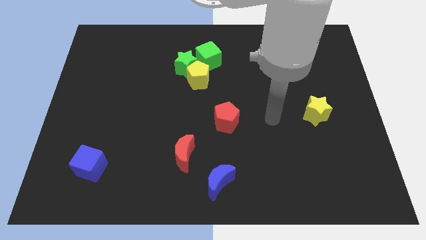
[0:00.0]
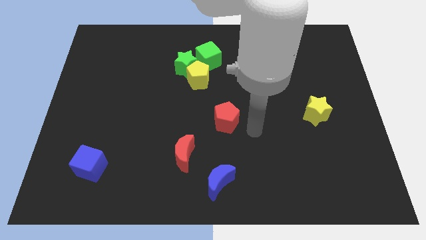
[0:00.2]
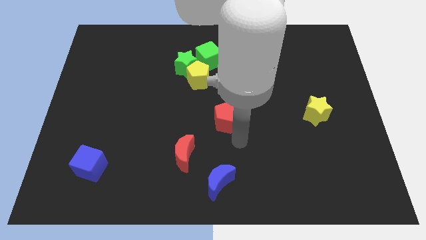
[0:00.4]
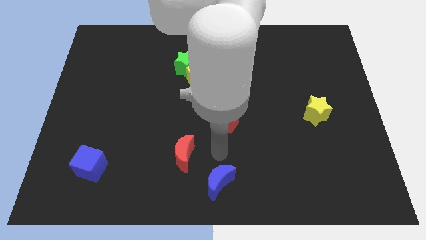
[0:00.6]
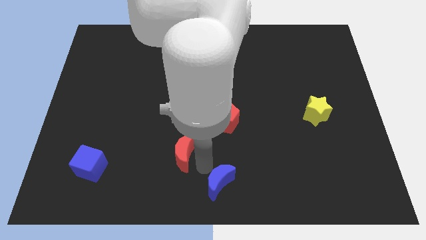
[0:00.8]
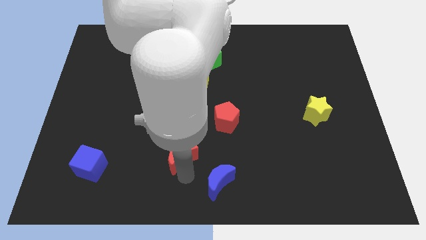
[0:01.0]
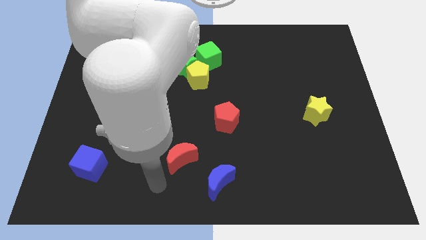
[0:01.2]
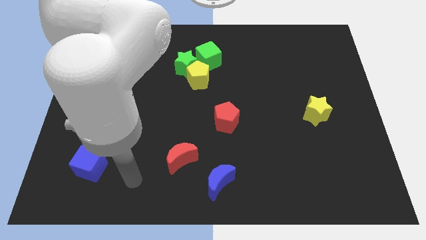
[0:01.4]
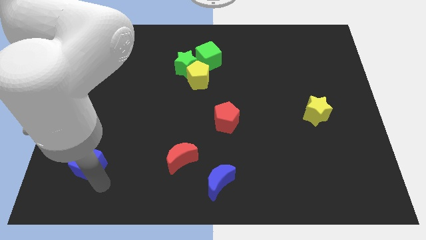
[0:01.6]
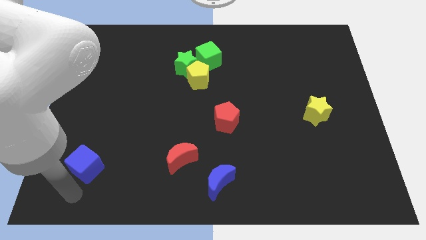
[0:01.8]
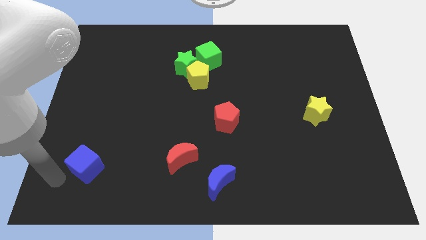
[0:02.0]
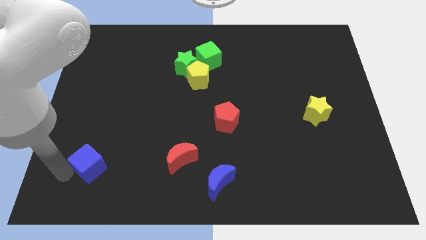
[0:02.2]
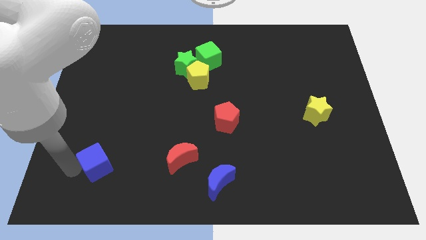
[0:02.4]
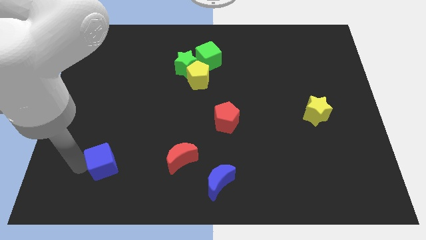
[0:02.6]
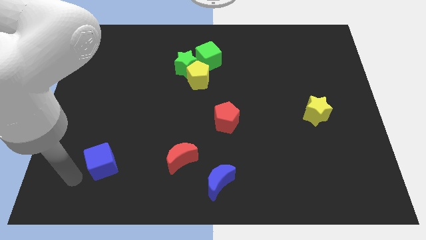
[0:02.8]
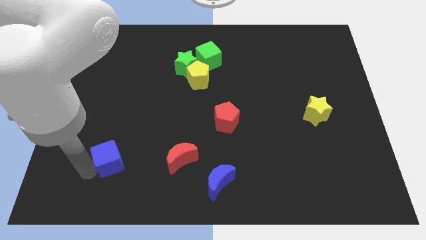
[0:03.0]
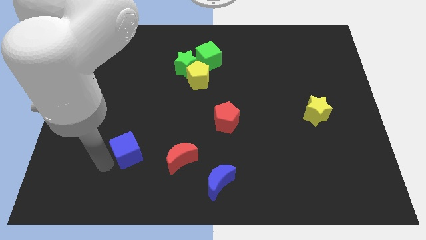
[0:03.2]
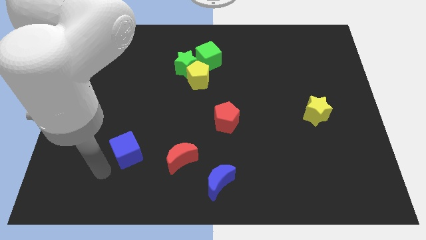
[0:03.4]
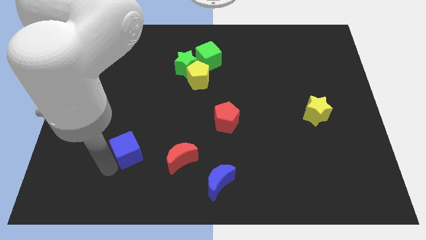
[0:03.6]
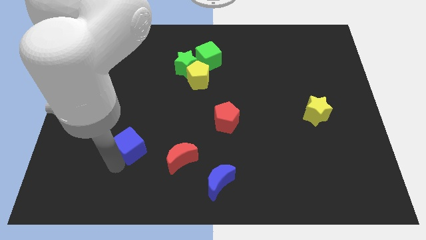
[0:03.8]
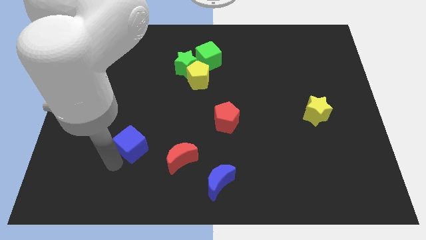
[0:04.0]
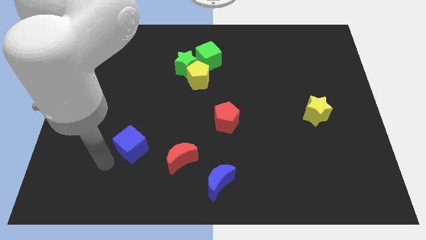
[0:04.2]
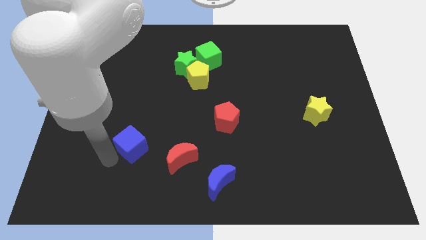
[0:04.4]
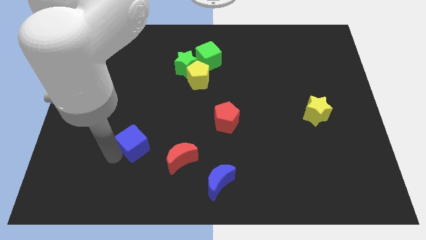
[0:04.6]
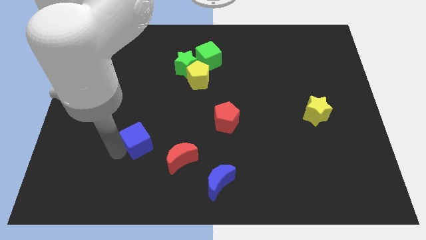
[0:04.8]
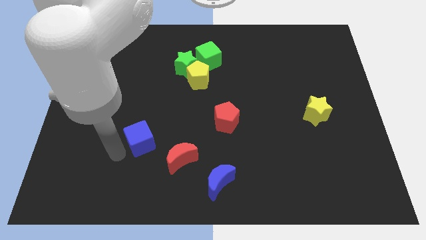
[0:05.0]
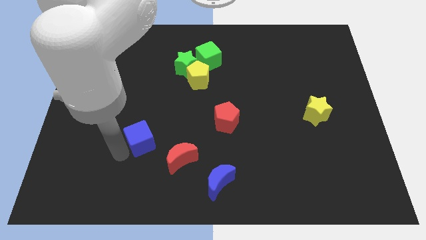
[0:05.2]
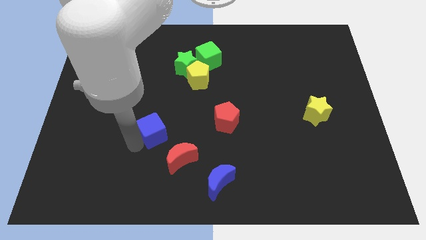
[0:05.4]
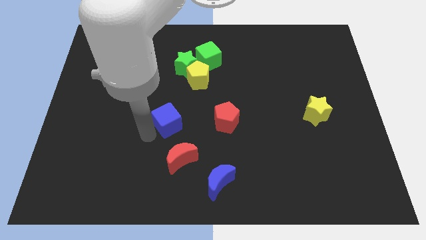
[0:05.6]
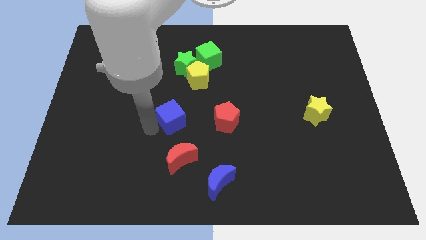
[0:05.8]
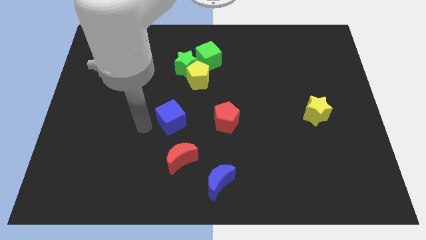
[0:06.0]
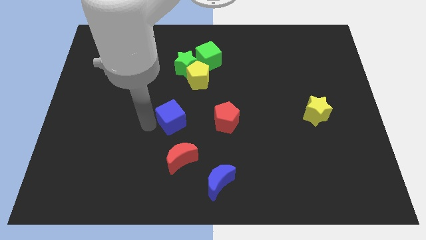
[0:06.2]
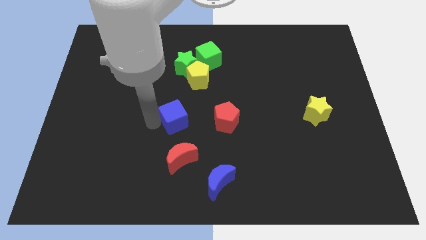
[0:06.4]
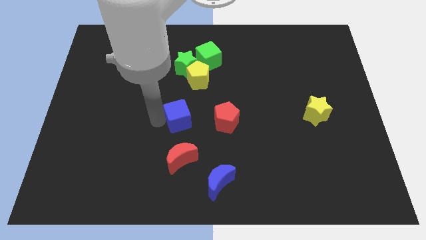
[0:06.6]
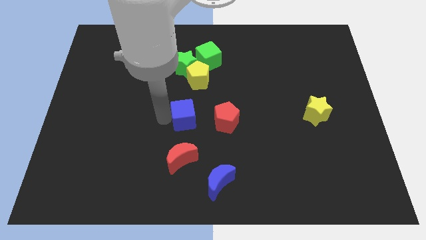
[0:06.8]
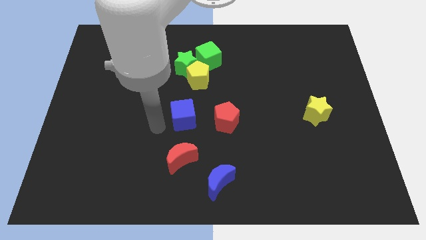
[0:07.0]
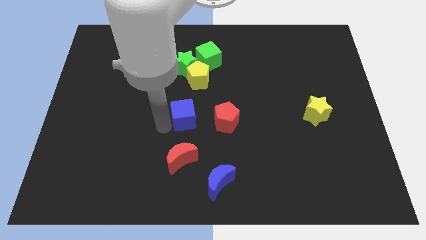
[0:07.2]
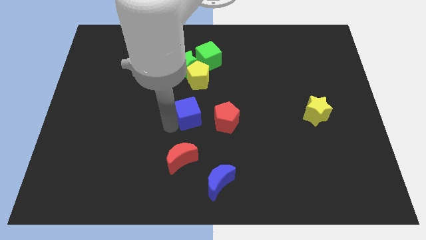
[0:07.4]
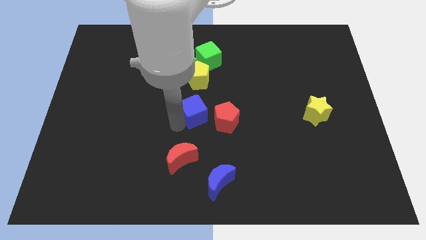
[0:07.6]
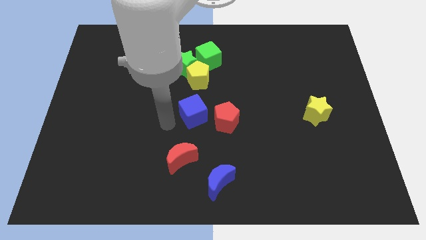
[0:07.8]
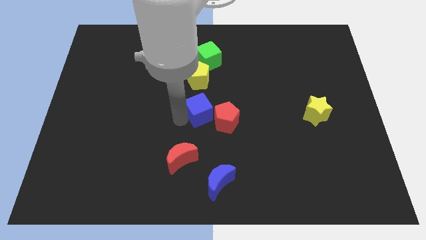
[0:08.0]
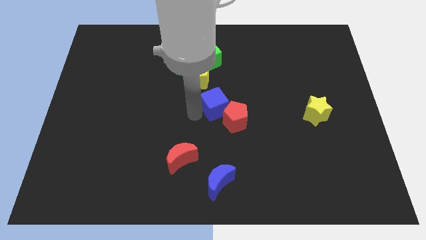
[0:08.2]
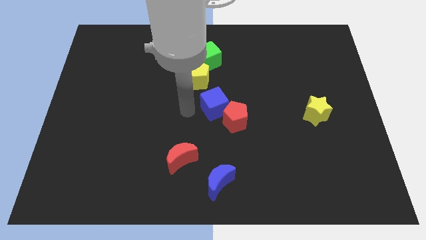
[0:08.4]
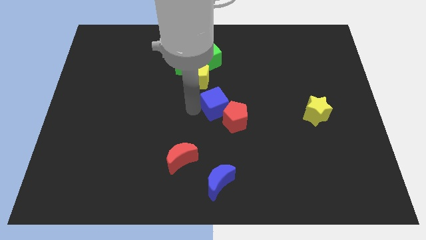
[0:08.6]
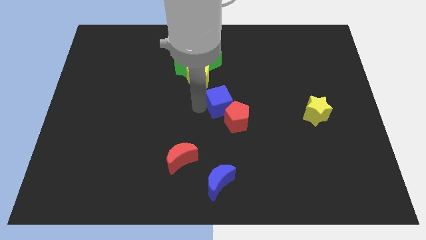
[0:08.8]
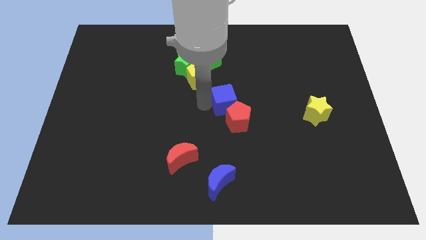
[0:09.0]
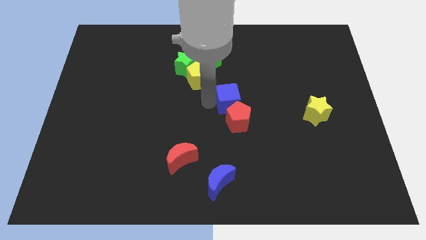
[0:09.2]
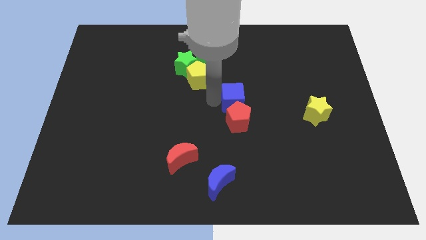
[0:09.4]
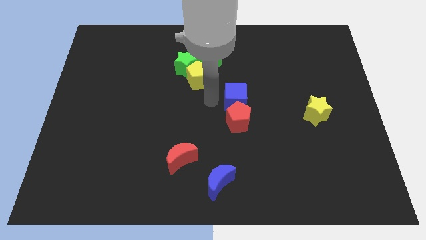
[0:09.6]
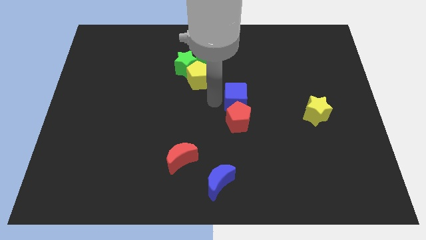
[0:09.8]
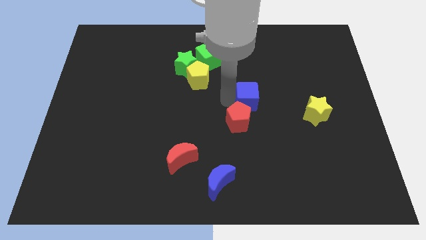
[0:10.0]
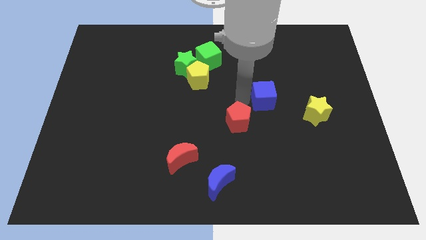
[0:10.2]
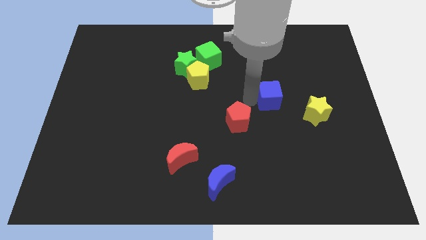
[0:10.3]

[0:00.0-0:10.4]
slide the blue cube to the top left side of the yellow star

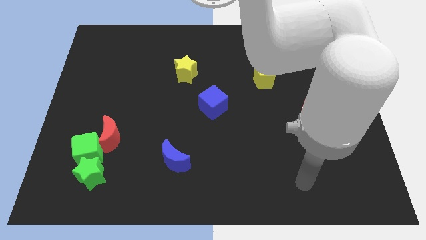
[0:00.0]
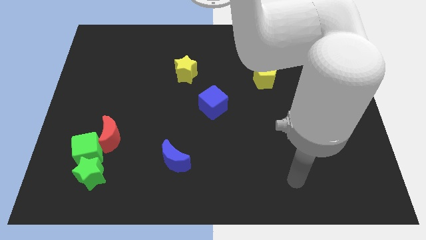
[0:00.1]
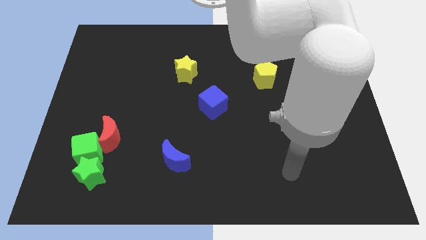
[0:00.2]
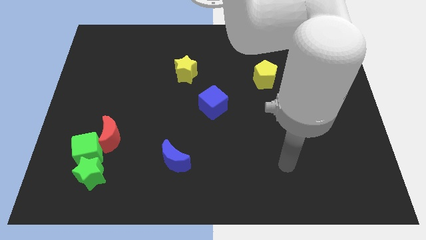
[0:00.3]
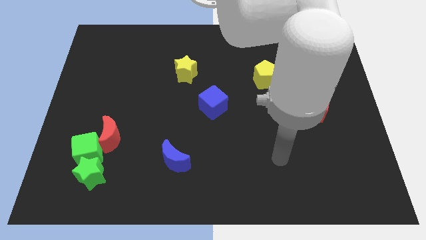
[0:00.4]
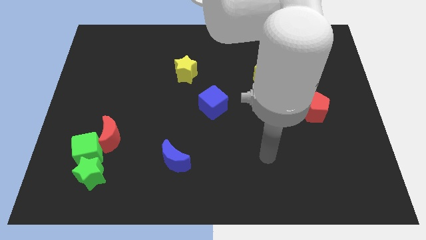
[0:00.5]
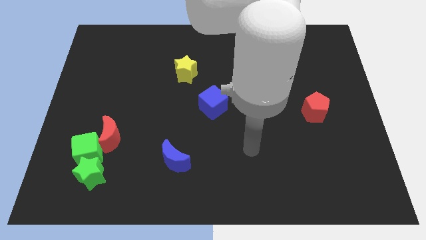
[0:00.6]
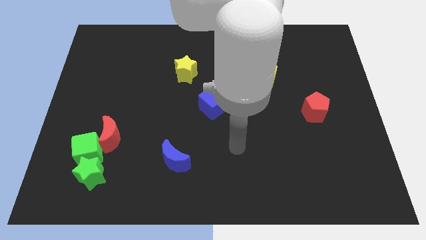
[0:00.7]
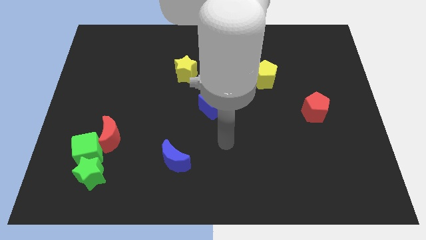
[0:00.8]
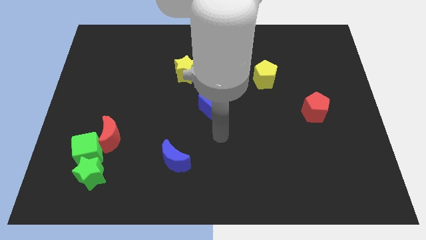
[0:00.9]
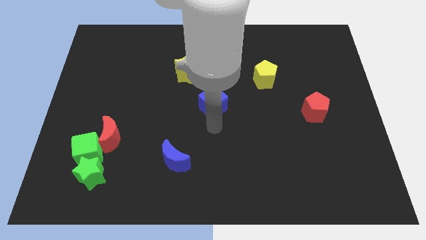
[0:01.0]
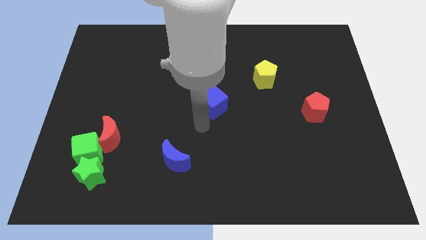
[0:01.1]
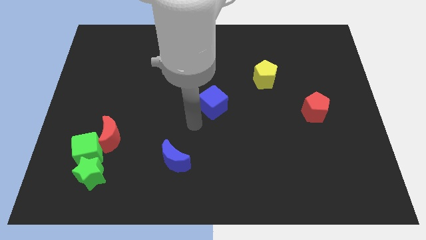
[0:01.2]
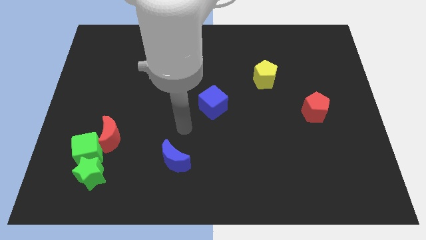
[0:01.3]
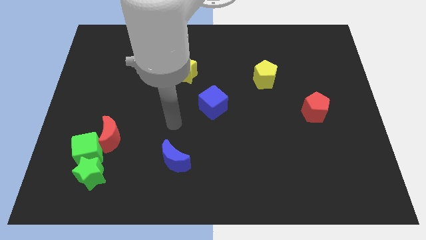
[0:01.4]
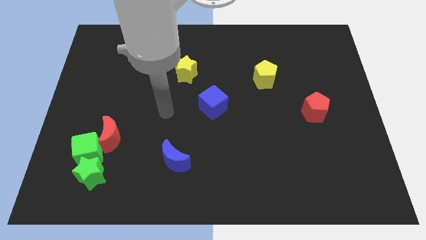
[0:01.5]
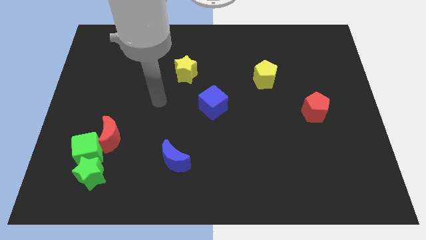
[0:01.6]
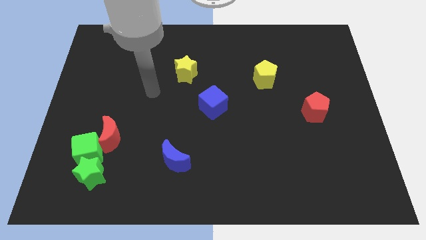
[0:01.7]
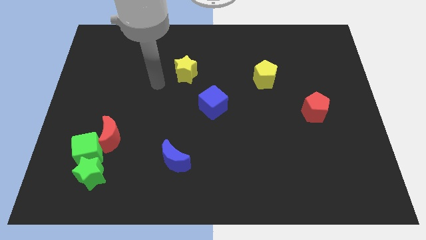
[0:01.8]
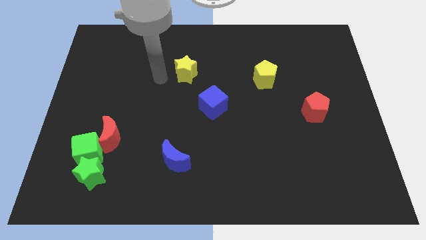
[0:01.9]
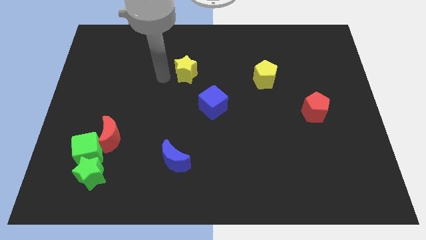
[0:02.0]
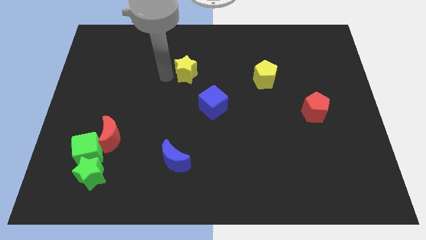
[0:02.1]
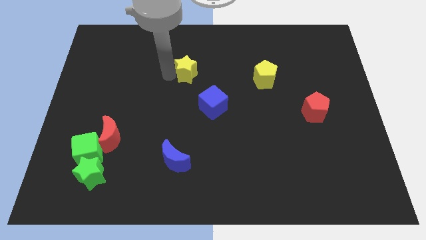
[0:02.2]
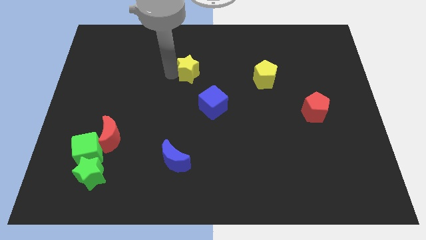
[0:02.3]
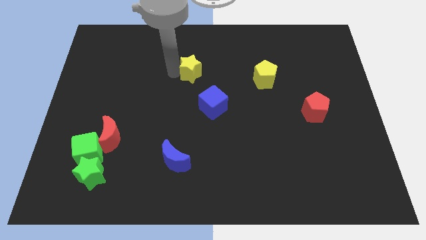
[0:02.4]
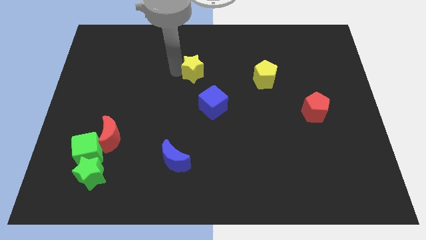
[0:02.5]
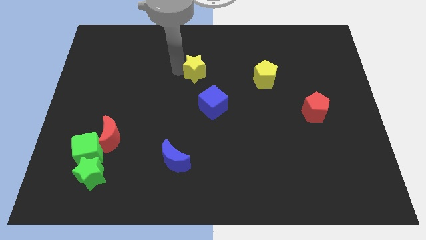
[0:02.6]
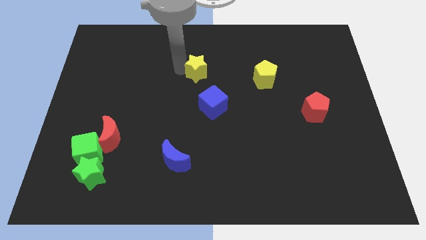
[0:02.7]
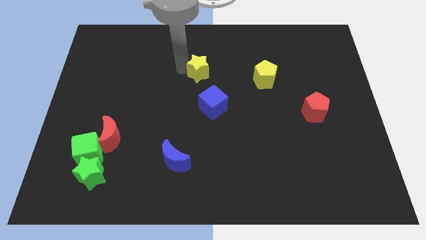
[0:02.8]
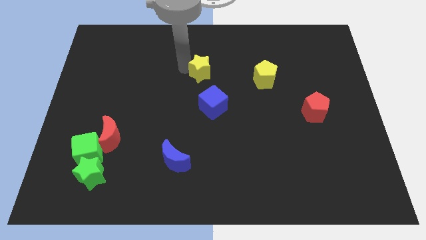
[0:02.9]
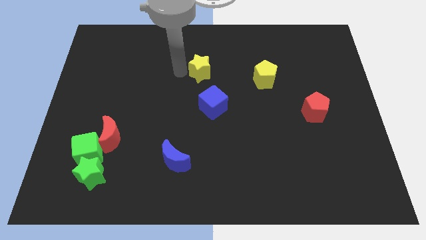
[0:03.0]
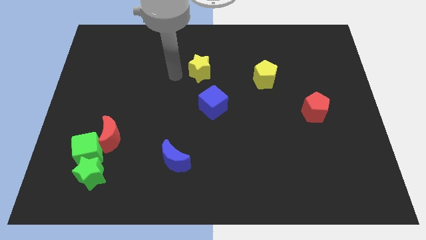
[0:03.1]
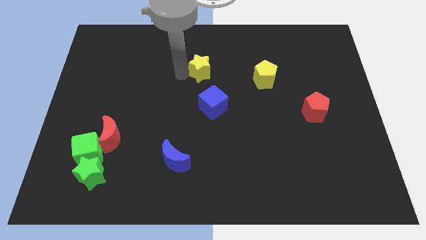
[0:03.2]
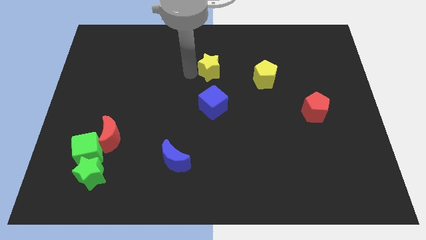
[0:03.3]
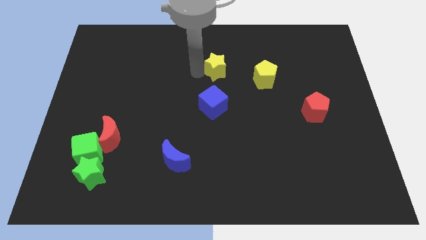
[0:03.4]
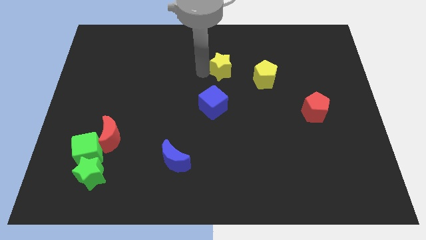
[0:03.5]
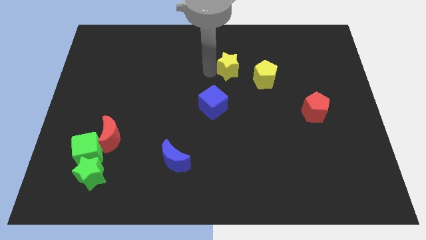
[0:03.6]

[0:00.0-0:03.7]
move the yellow star to the top left side of the yellow pentagon
